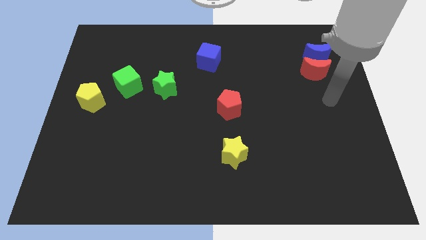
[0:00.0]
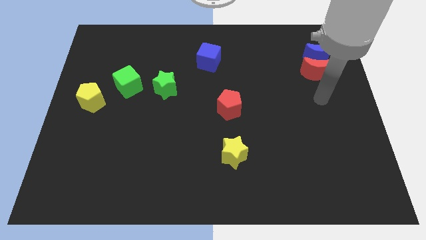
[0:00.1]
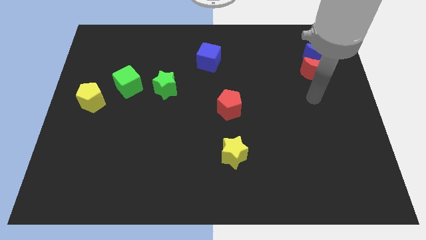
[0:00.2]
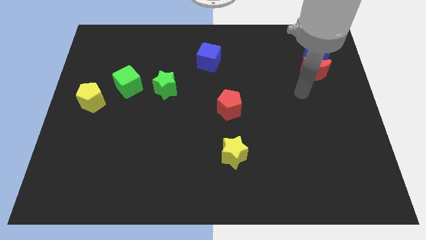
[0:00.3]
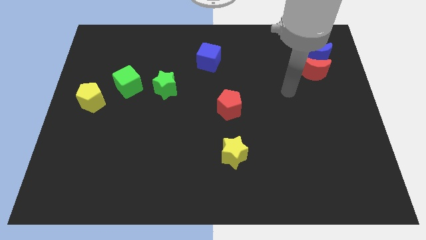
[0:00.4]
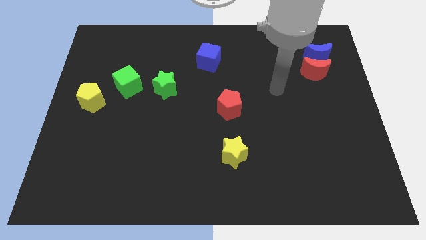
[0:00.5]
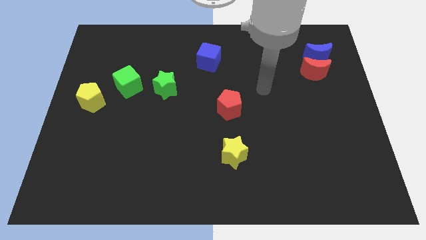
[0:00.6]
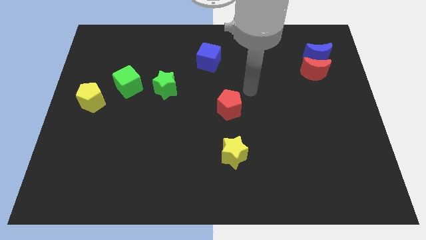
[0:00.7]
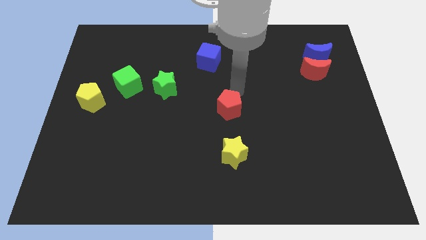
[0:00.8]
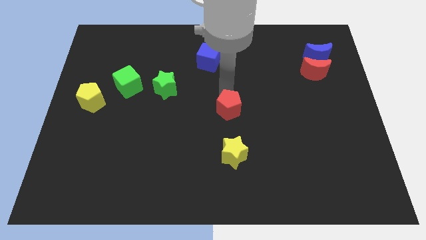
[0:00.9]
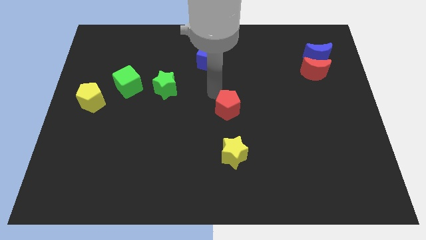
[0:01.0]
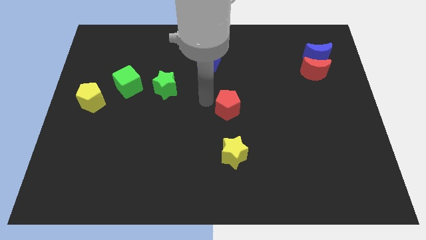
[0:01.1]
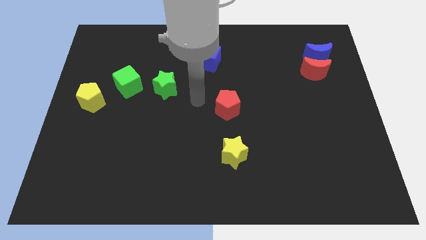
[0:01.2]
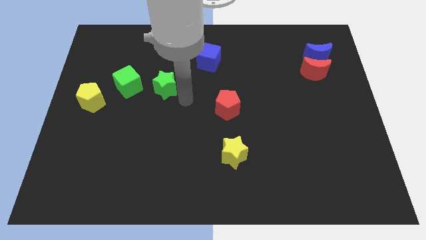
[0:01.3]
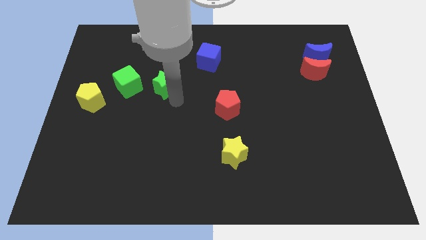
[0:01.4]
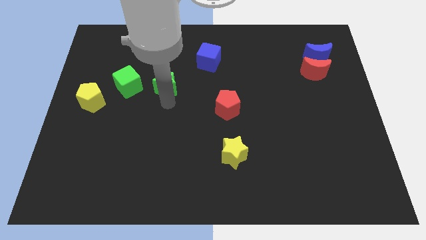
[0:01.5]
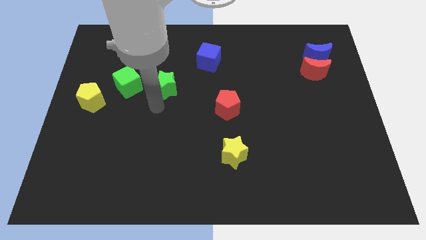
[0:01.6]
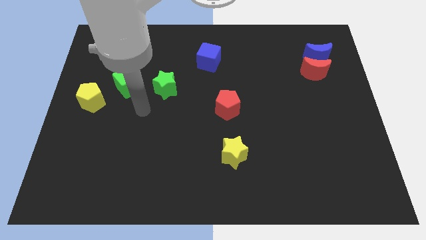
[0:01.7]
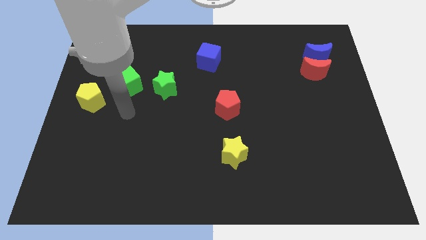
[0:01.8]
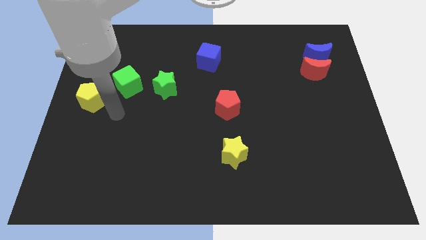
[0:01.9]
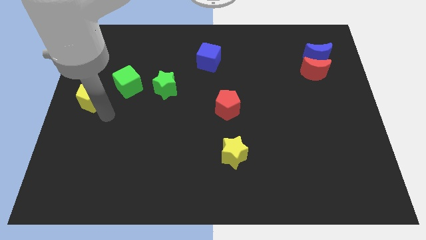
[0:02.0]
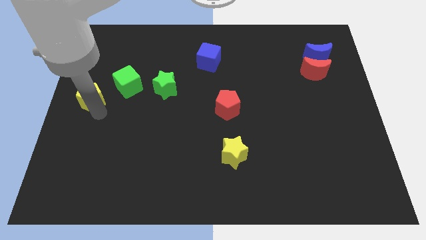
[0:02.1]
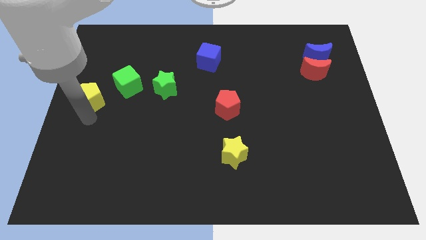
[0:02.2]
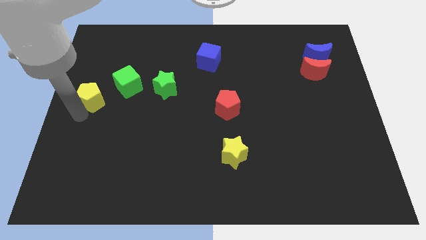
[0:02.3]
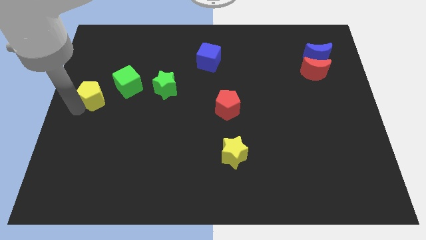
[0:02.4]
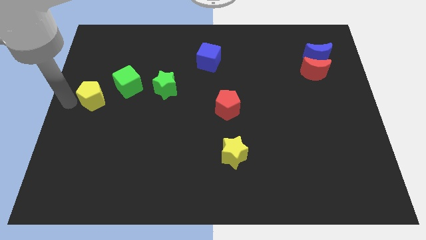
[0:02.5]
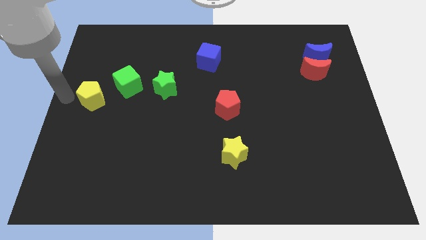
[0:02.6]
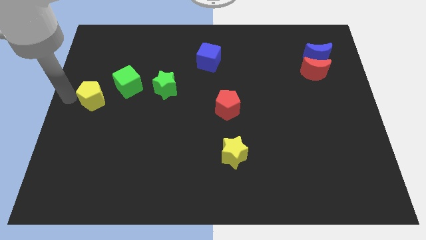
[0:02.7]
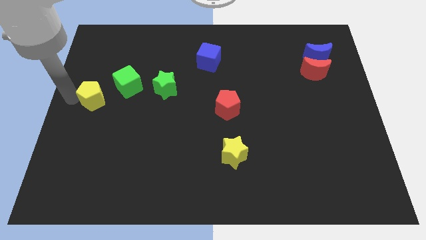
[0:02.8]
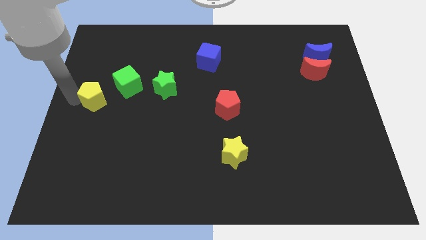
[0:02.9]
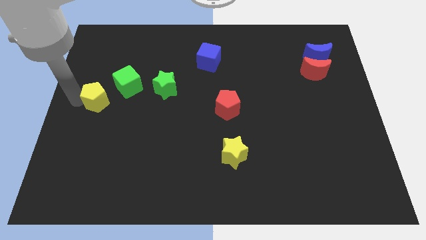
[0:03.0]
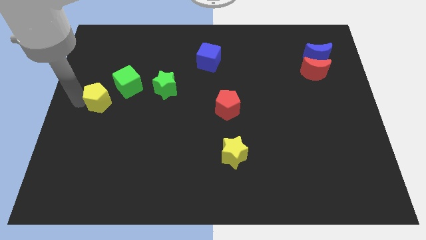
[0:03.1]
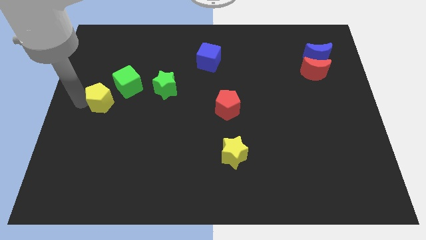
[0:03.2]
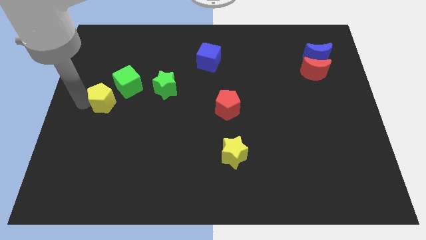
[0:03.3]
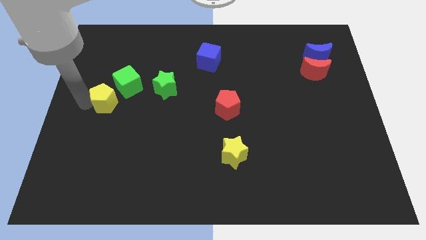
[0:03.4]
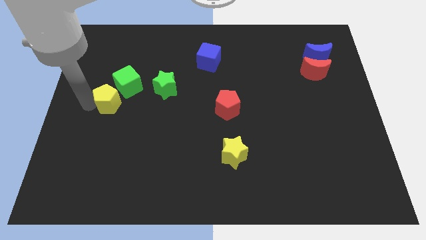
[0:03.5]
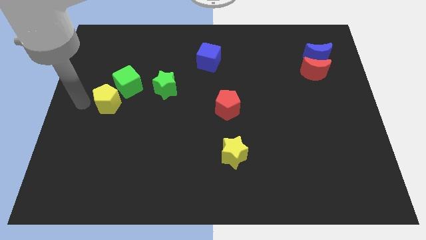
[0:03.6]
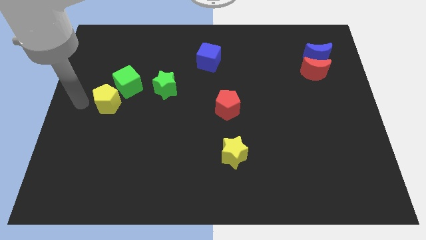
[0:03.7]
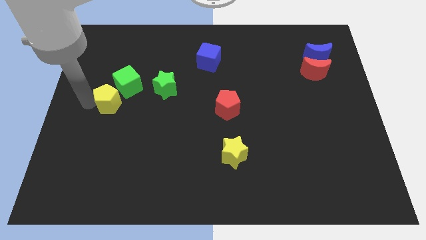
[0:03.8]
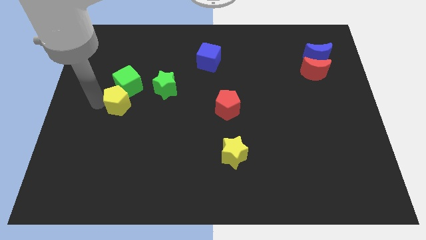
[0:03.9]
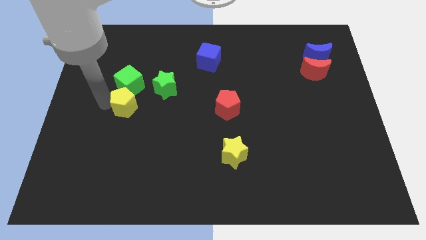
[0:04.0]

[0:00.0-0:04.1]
slightly slide the yellow pentagon right

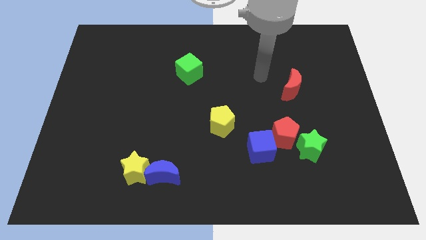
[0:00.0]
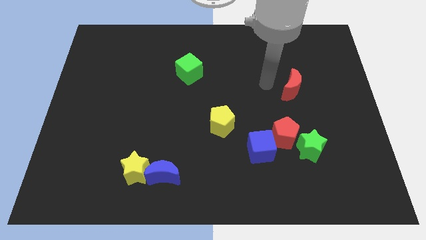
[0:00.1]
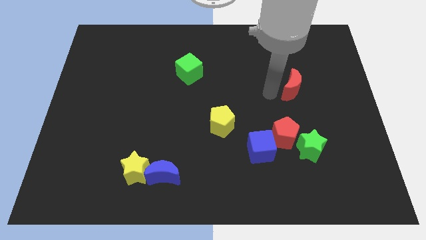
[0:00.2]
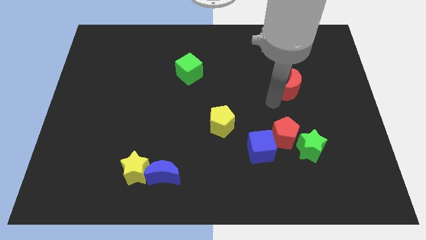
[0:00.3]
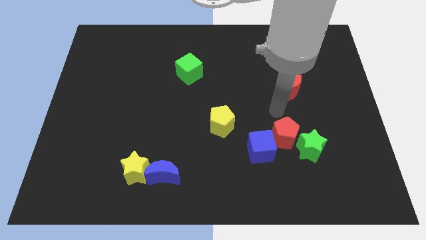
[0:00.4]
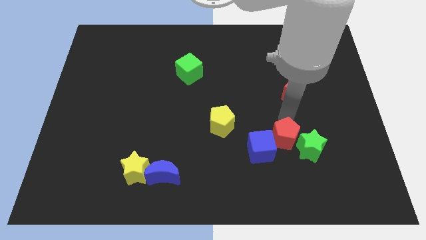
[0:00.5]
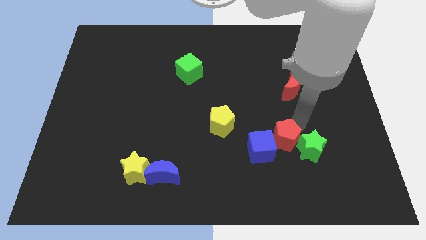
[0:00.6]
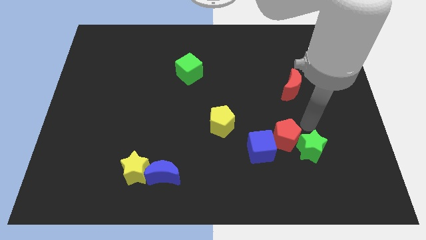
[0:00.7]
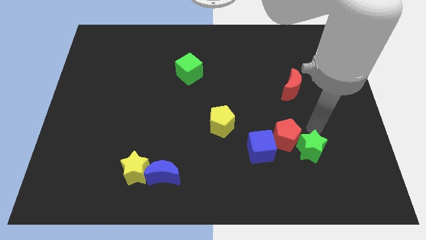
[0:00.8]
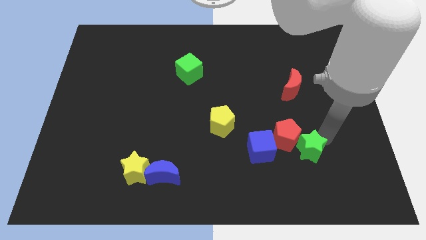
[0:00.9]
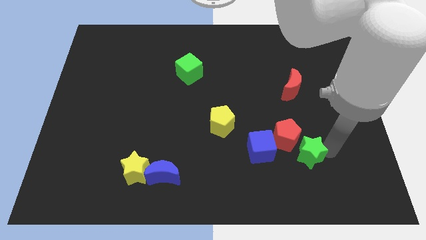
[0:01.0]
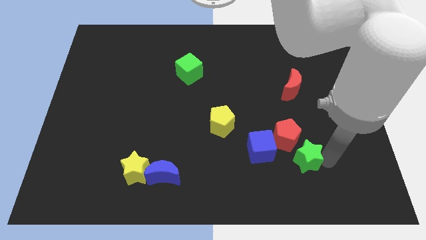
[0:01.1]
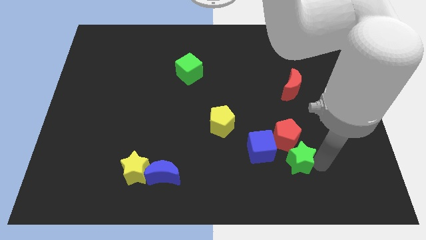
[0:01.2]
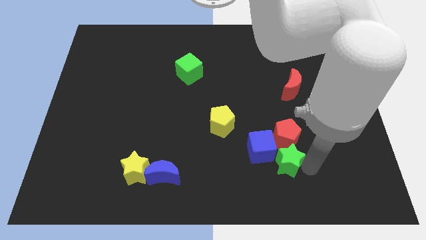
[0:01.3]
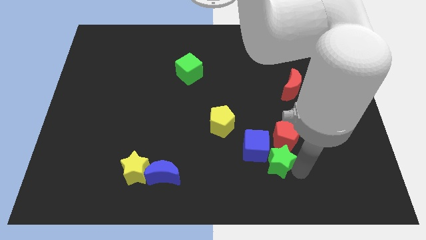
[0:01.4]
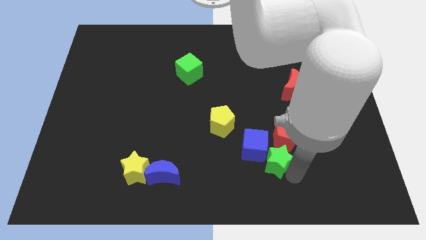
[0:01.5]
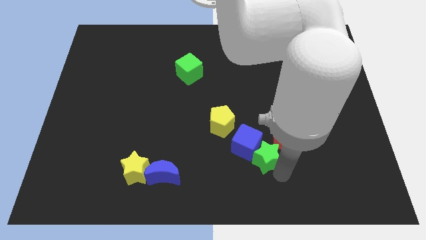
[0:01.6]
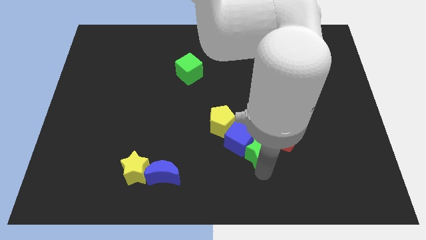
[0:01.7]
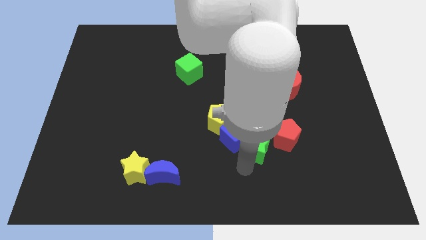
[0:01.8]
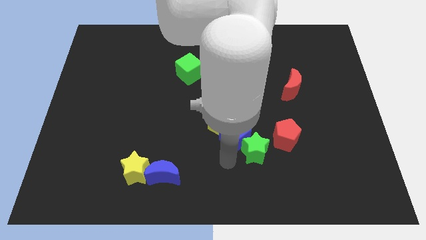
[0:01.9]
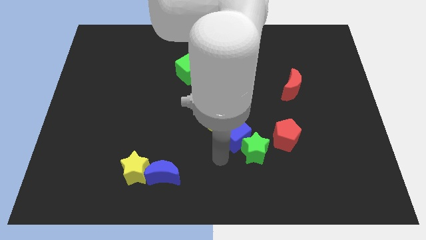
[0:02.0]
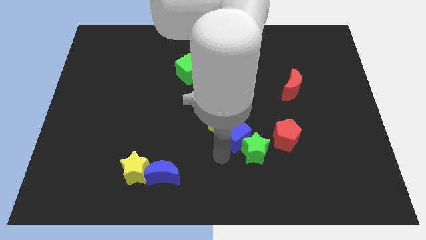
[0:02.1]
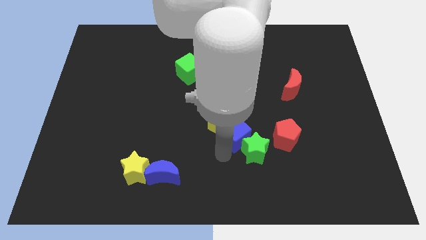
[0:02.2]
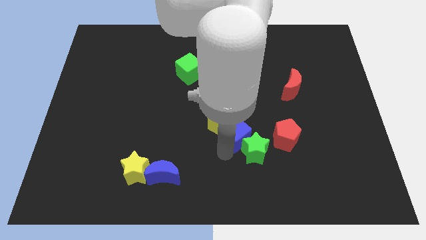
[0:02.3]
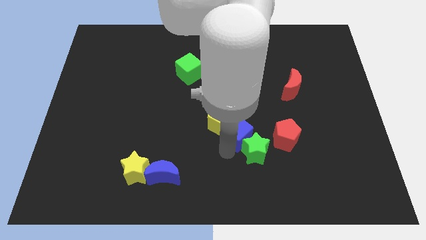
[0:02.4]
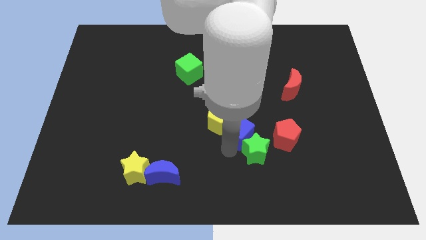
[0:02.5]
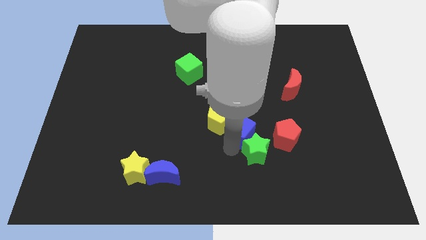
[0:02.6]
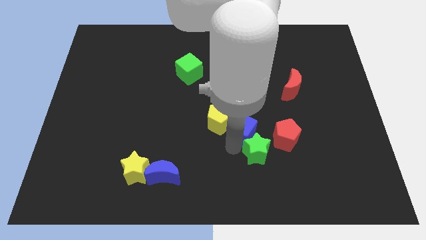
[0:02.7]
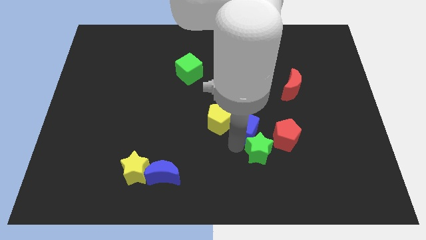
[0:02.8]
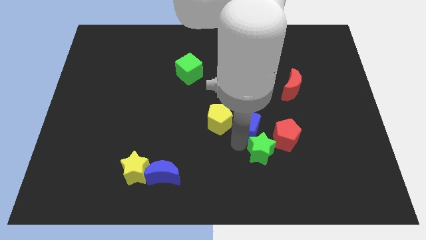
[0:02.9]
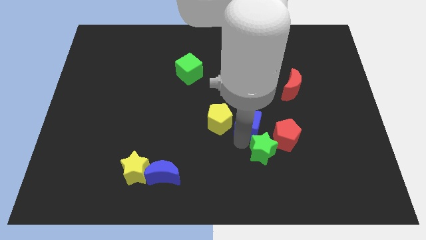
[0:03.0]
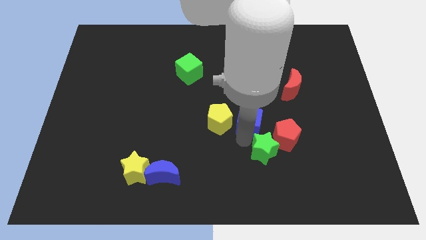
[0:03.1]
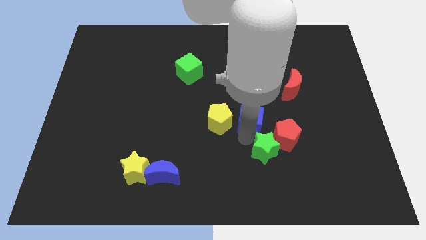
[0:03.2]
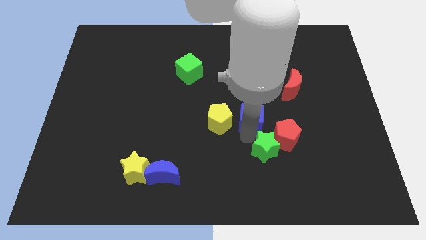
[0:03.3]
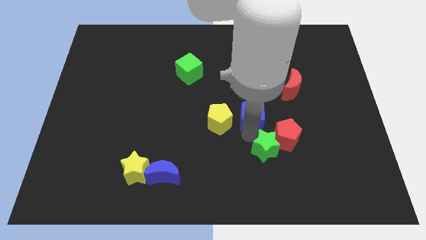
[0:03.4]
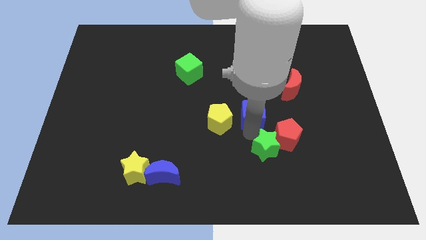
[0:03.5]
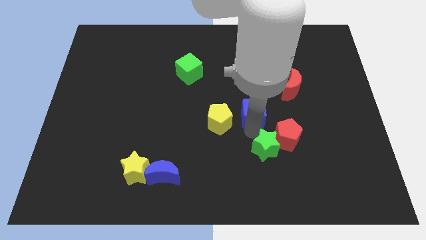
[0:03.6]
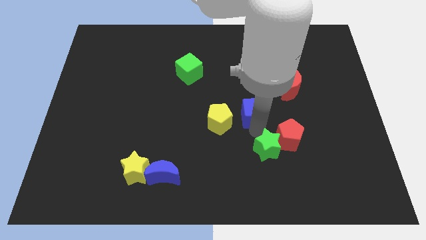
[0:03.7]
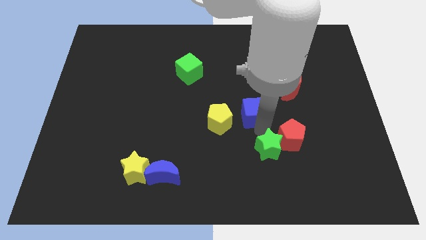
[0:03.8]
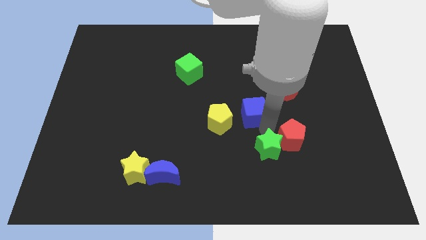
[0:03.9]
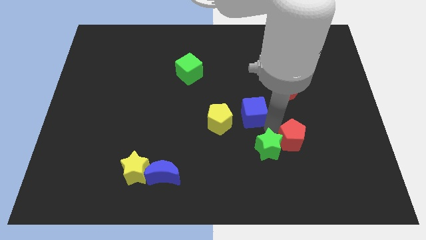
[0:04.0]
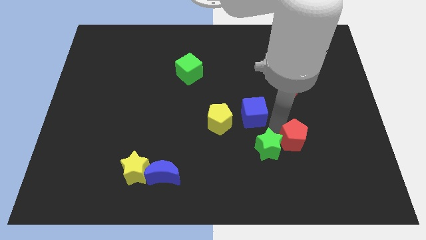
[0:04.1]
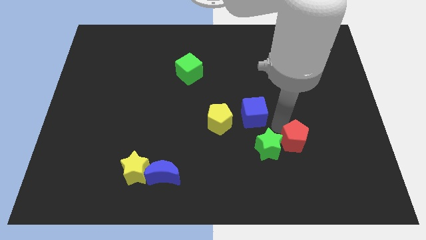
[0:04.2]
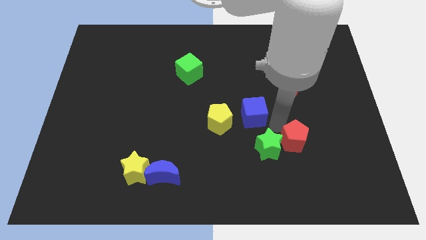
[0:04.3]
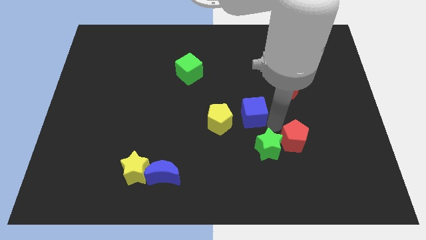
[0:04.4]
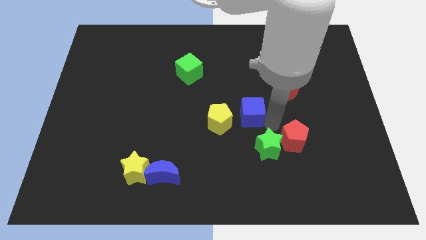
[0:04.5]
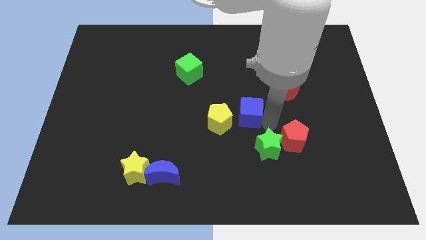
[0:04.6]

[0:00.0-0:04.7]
move the blue cube slightly up and left diagonally
